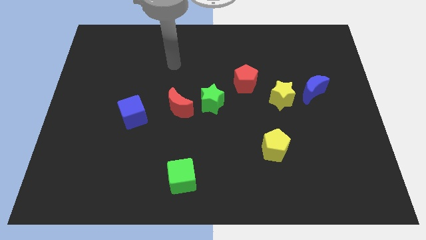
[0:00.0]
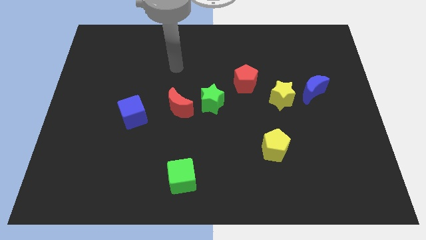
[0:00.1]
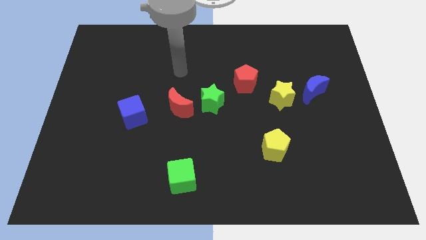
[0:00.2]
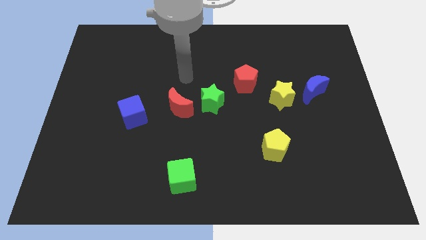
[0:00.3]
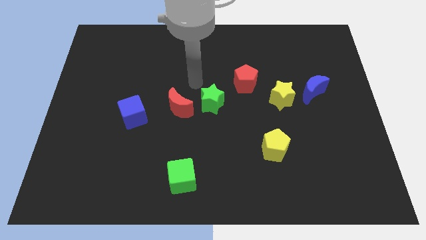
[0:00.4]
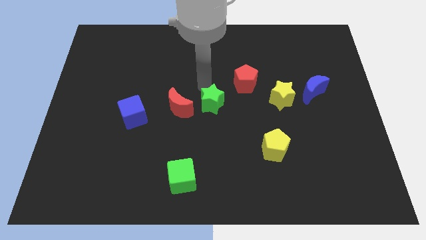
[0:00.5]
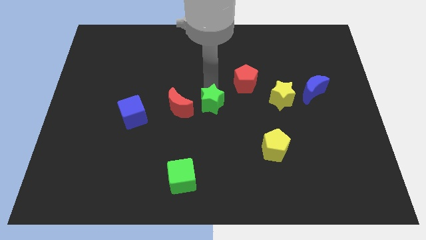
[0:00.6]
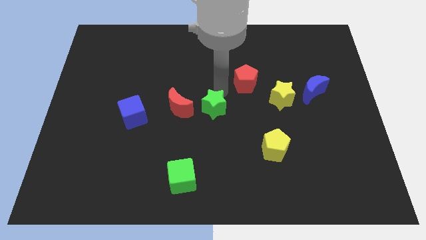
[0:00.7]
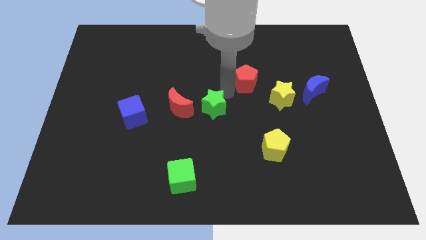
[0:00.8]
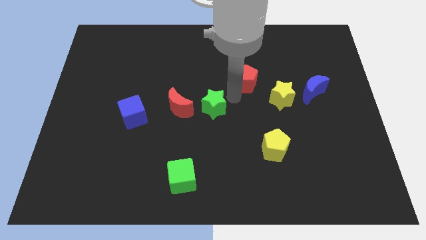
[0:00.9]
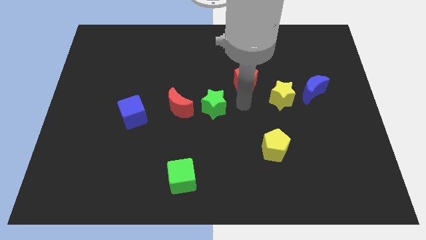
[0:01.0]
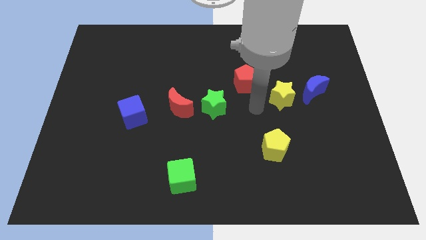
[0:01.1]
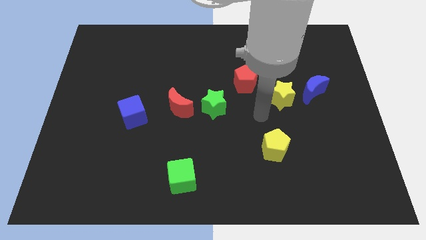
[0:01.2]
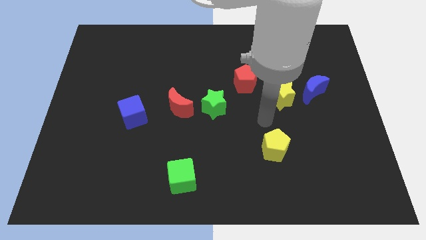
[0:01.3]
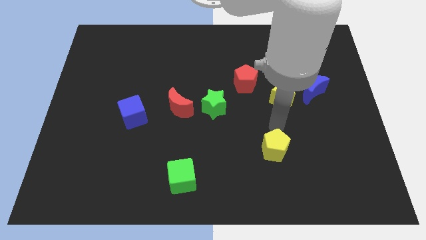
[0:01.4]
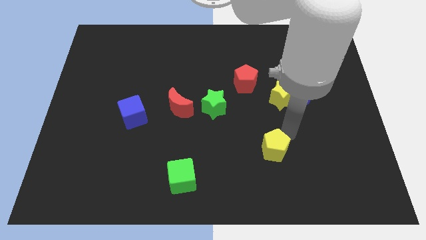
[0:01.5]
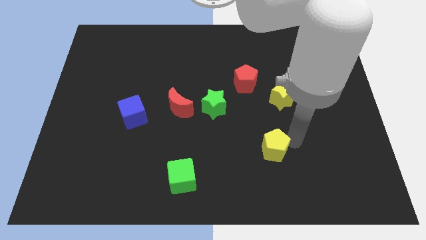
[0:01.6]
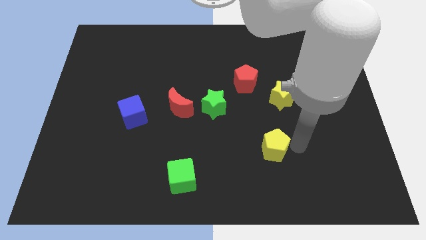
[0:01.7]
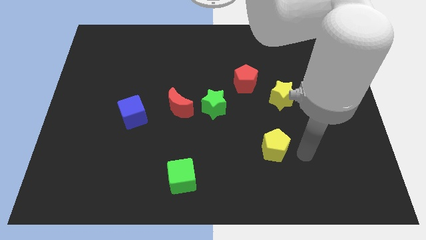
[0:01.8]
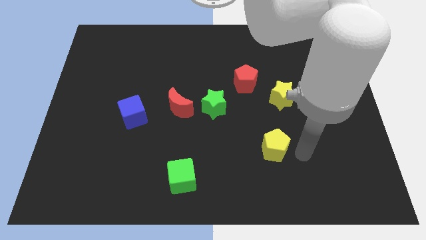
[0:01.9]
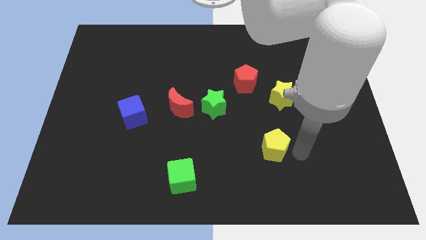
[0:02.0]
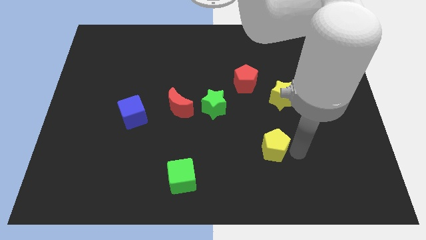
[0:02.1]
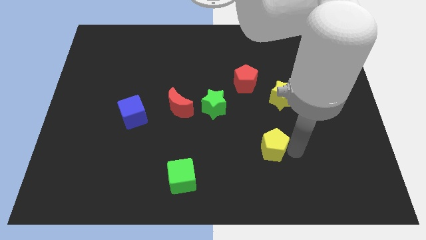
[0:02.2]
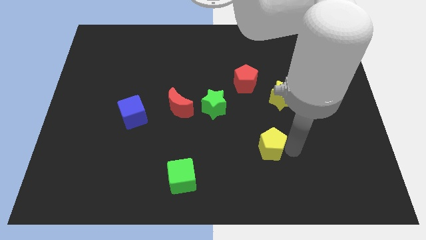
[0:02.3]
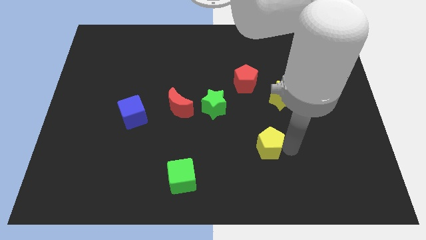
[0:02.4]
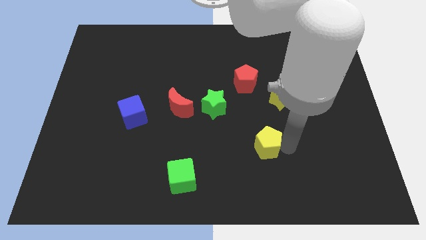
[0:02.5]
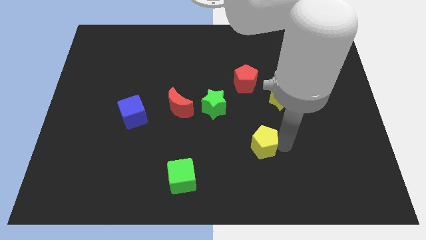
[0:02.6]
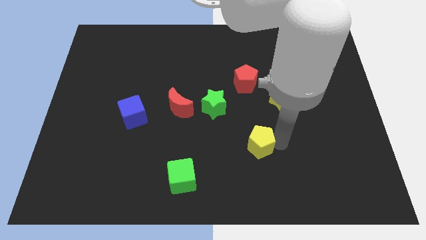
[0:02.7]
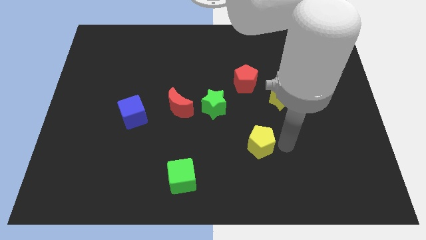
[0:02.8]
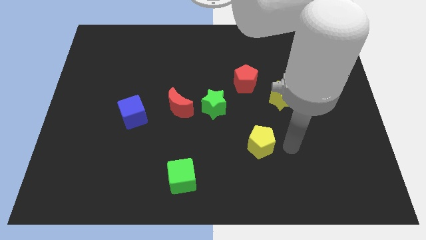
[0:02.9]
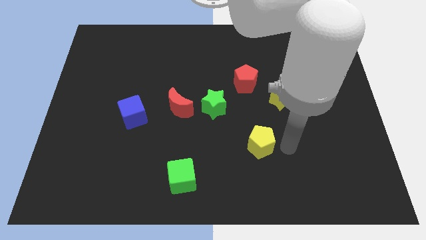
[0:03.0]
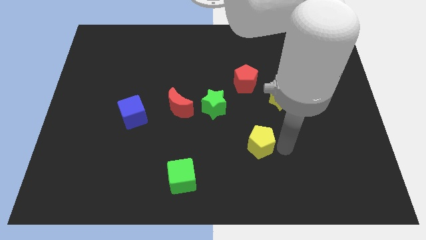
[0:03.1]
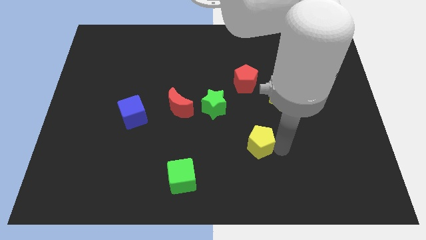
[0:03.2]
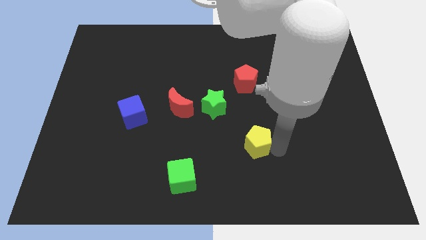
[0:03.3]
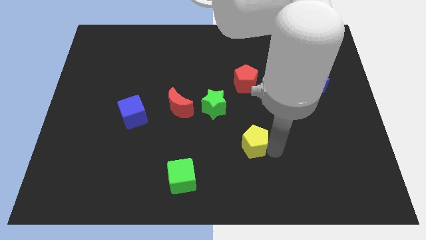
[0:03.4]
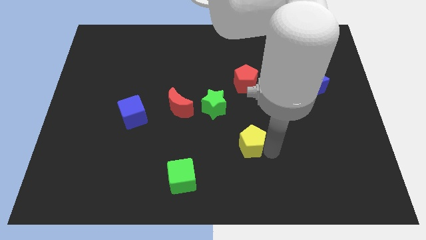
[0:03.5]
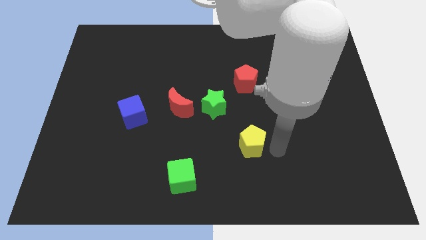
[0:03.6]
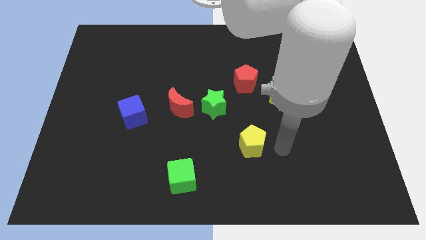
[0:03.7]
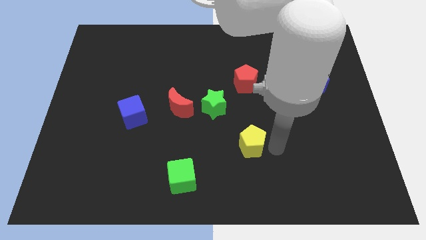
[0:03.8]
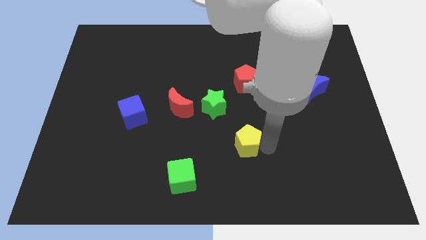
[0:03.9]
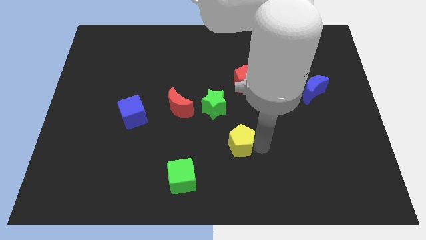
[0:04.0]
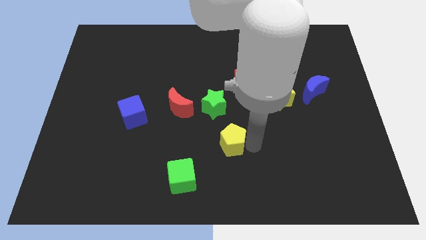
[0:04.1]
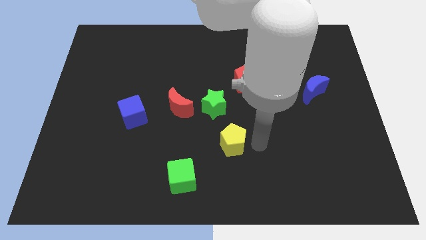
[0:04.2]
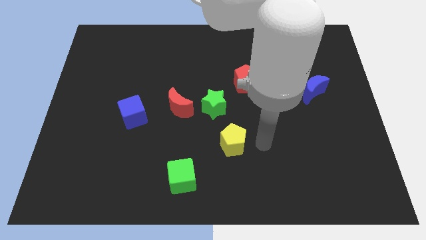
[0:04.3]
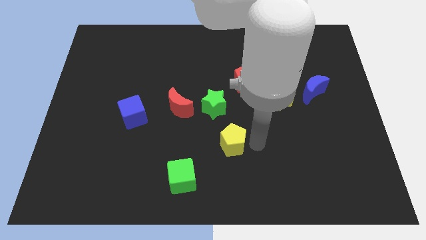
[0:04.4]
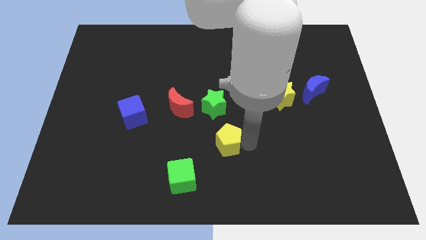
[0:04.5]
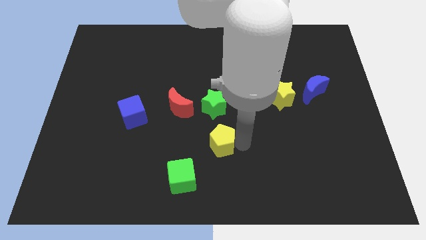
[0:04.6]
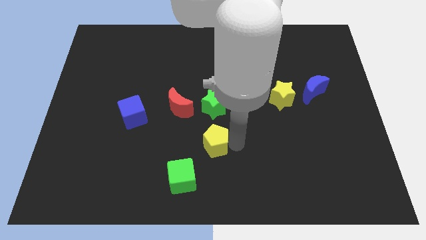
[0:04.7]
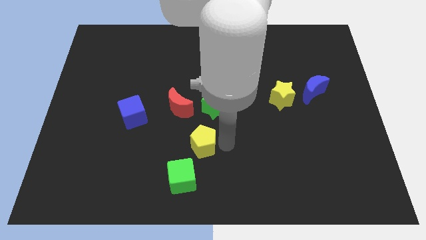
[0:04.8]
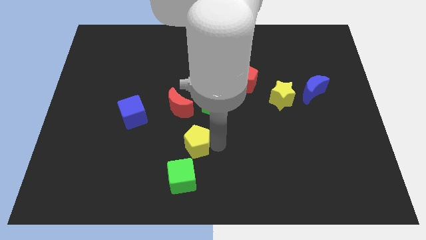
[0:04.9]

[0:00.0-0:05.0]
slide the yellow pentagon below the red moon

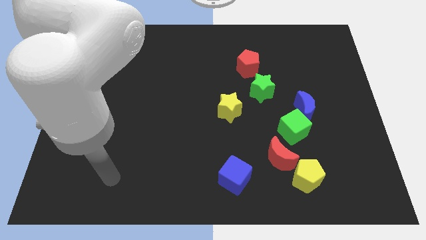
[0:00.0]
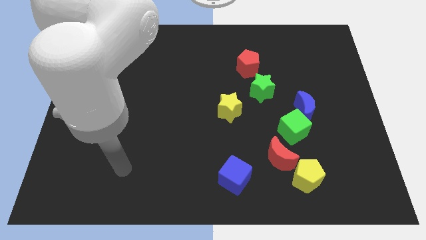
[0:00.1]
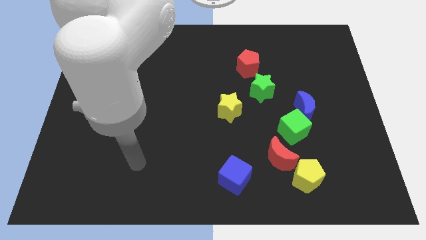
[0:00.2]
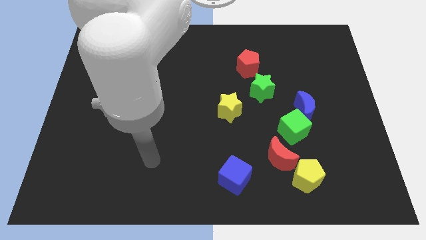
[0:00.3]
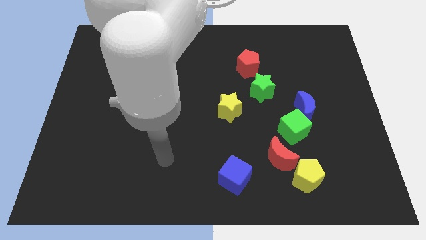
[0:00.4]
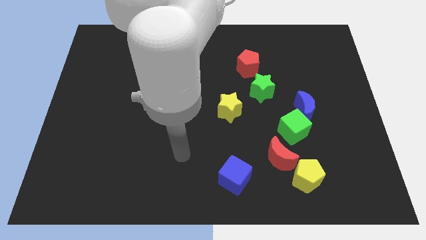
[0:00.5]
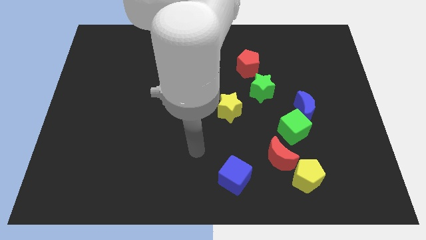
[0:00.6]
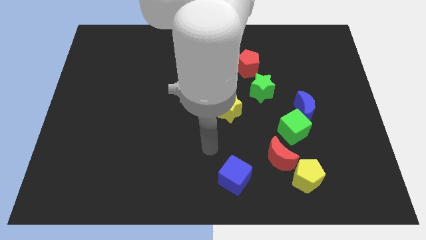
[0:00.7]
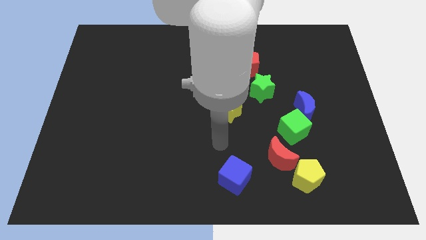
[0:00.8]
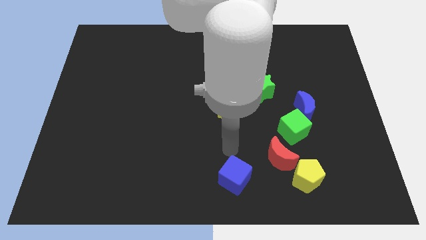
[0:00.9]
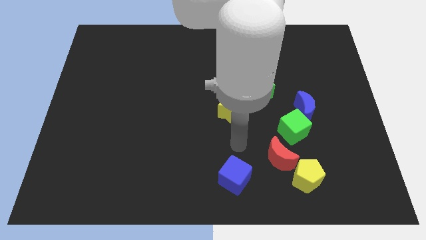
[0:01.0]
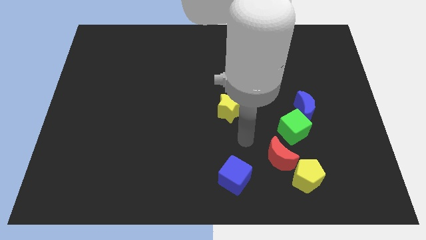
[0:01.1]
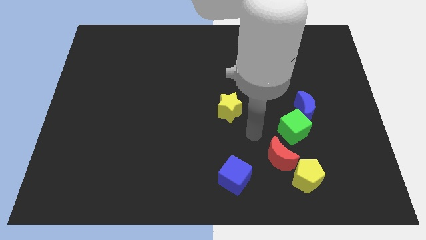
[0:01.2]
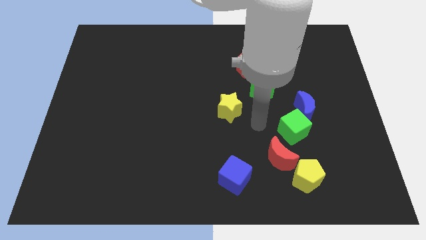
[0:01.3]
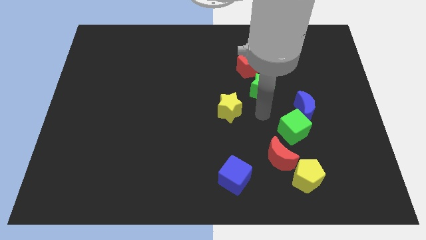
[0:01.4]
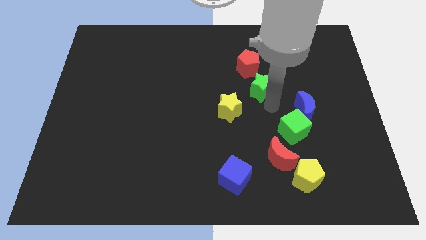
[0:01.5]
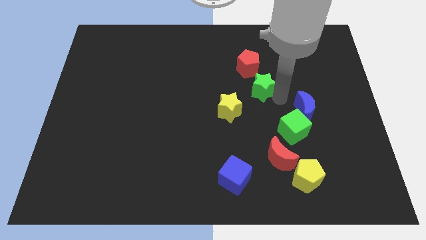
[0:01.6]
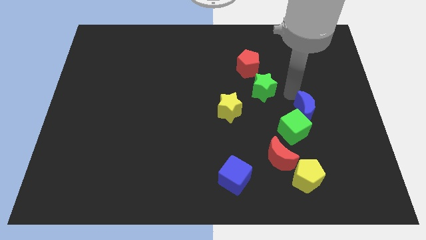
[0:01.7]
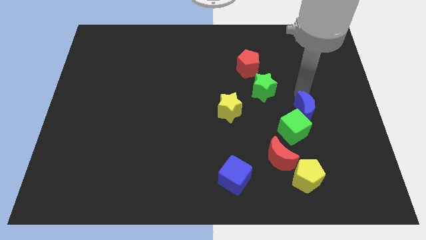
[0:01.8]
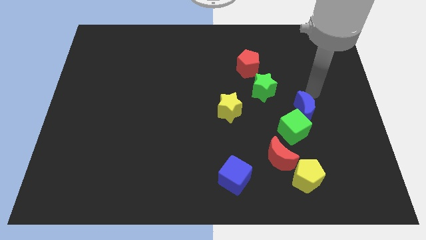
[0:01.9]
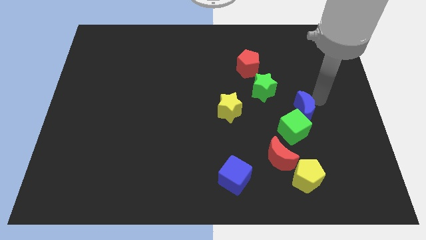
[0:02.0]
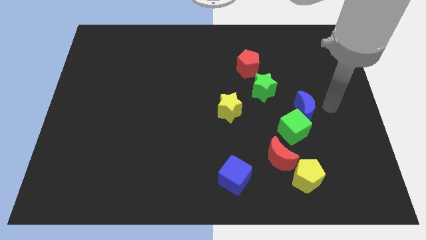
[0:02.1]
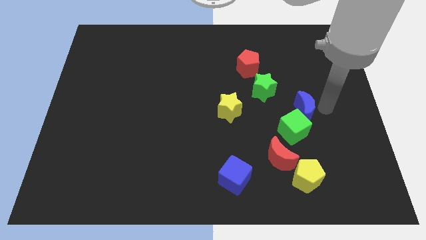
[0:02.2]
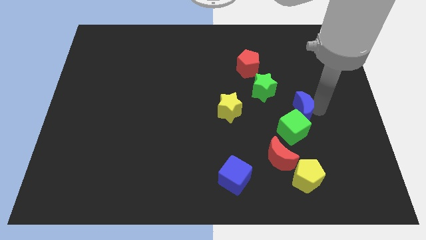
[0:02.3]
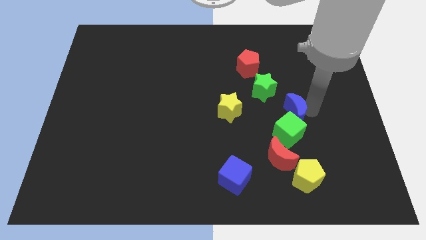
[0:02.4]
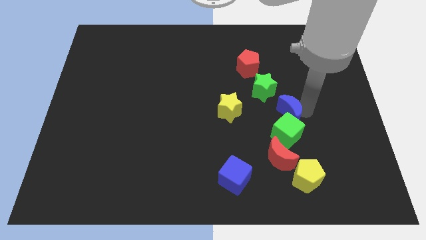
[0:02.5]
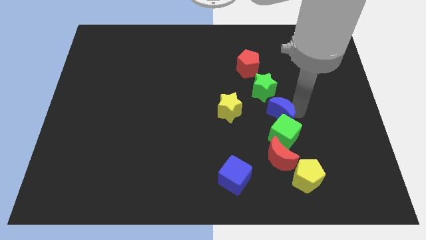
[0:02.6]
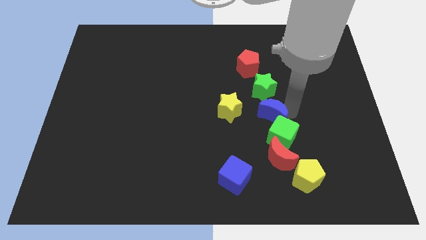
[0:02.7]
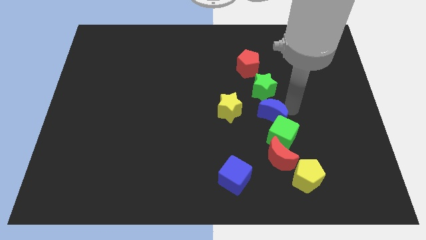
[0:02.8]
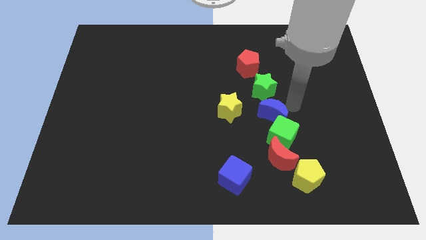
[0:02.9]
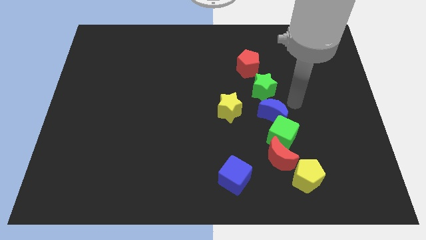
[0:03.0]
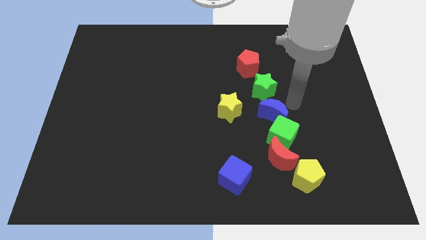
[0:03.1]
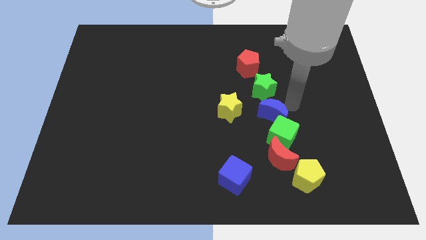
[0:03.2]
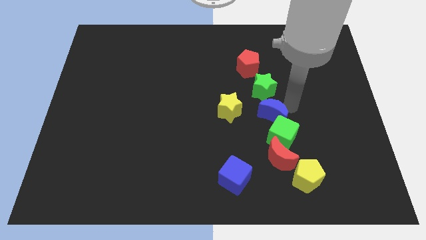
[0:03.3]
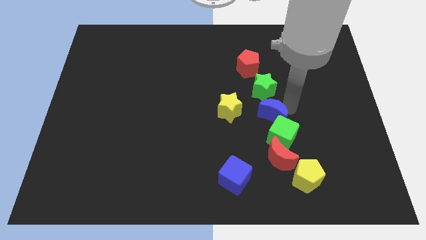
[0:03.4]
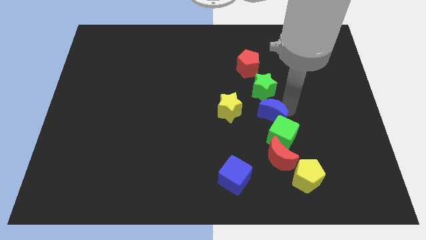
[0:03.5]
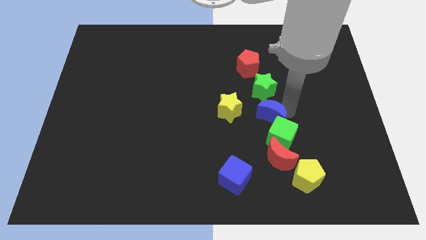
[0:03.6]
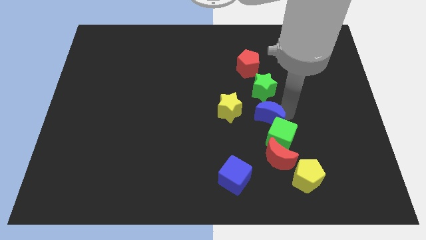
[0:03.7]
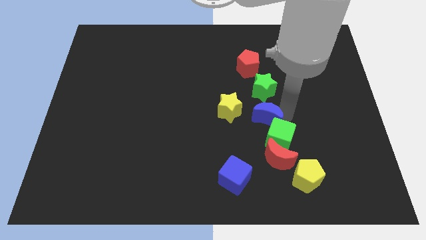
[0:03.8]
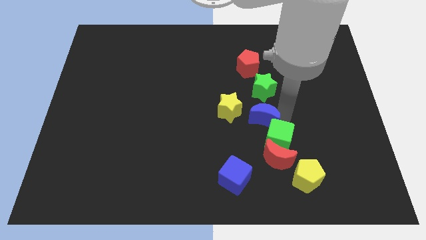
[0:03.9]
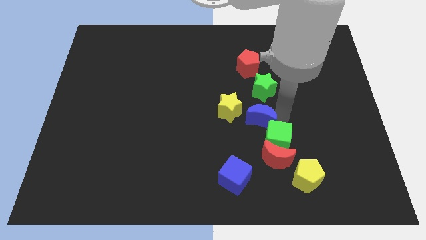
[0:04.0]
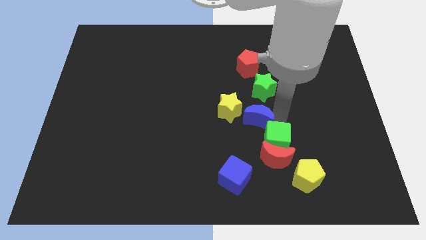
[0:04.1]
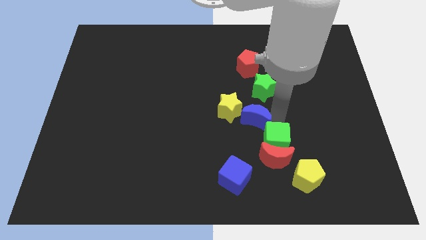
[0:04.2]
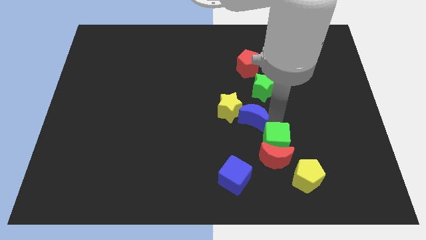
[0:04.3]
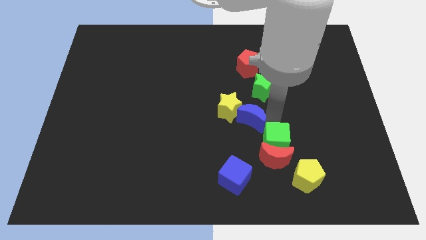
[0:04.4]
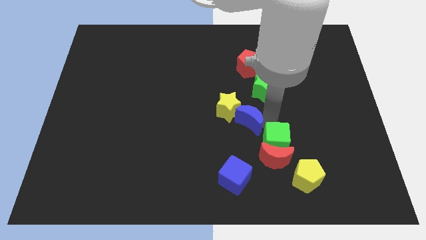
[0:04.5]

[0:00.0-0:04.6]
put the blue moon to the top of the blue cube
